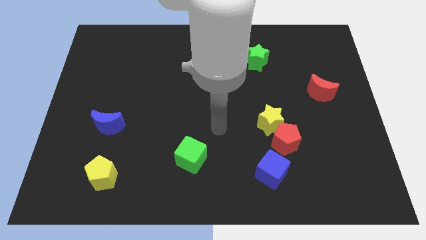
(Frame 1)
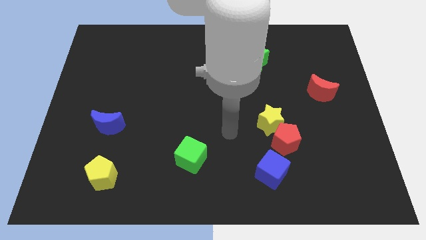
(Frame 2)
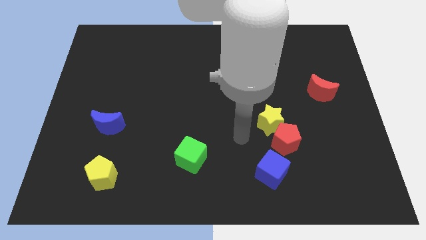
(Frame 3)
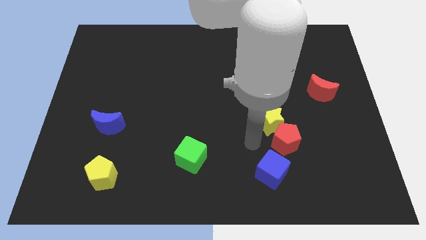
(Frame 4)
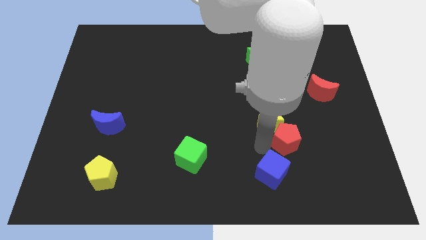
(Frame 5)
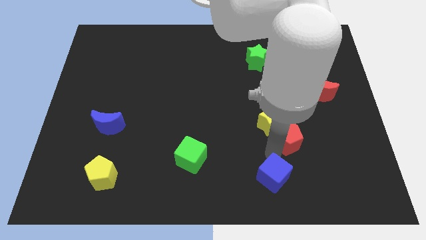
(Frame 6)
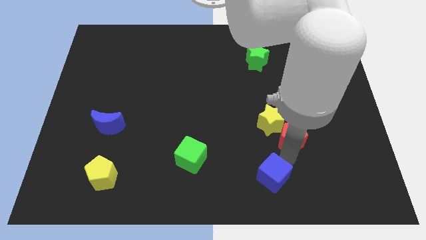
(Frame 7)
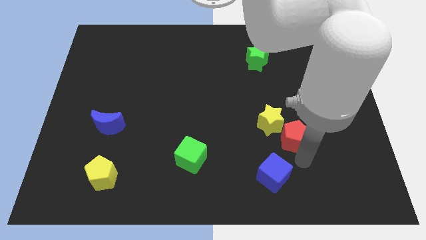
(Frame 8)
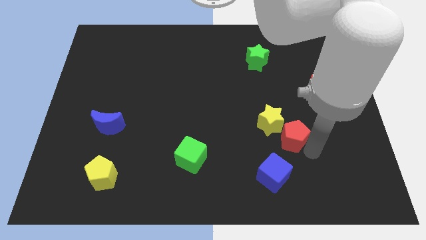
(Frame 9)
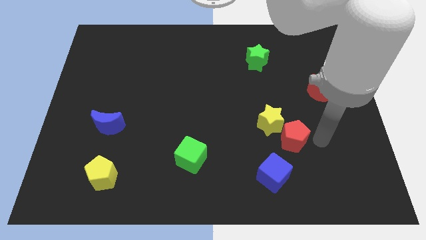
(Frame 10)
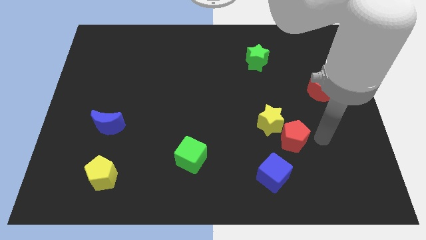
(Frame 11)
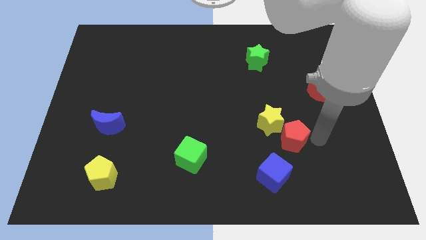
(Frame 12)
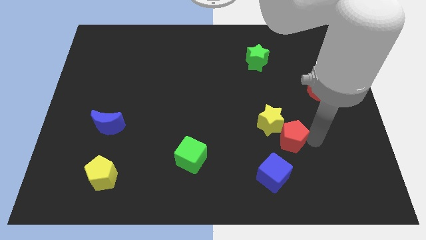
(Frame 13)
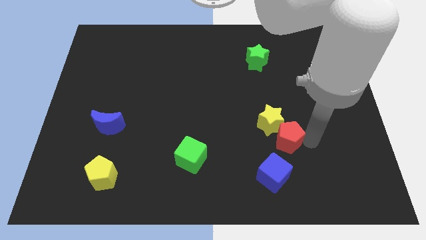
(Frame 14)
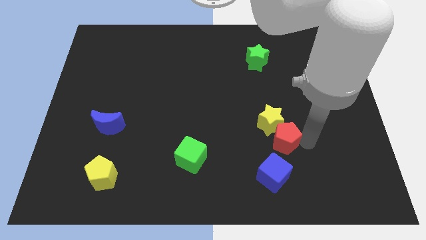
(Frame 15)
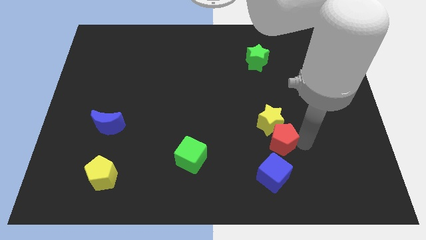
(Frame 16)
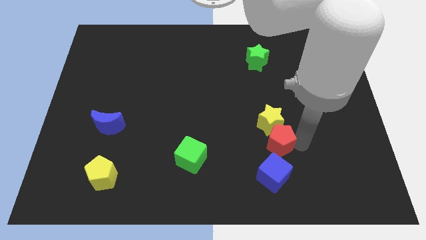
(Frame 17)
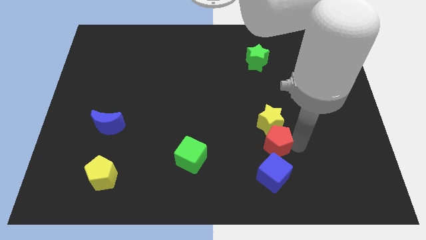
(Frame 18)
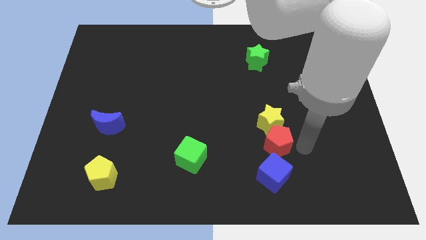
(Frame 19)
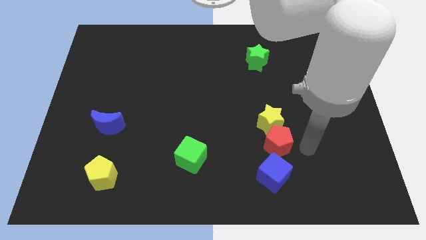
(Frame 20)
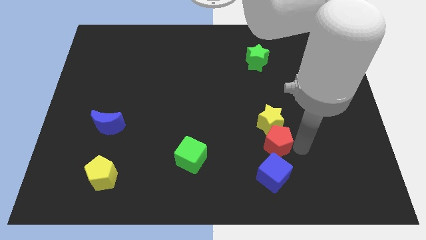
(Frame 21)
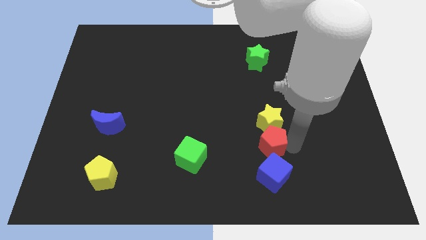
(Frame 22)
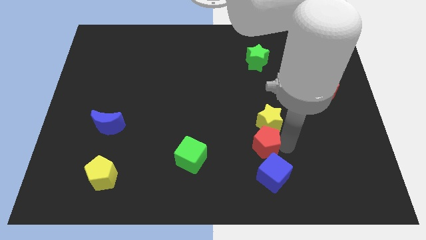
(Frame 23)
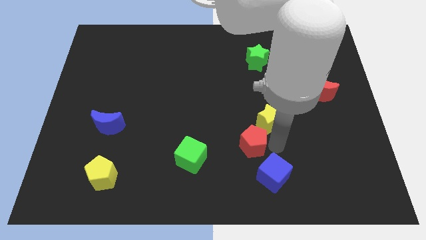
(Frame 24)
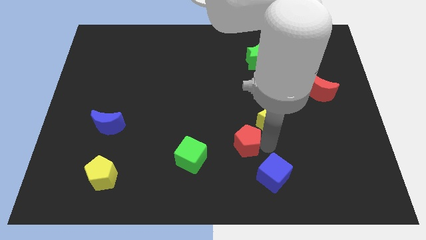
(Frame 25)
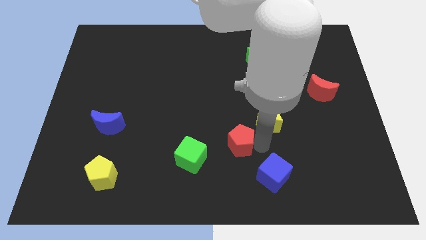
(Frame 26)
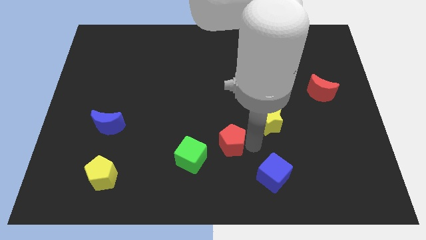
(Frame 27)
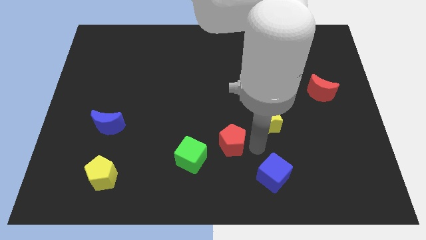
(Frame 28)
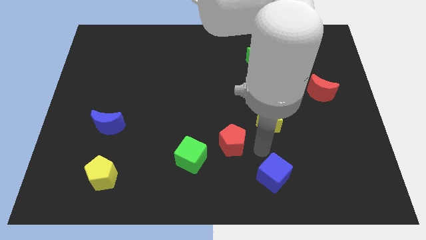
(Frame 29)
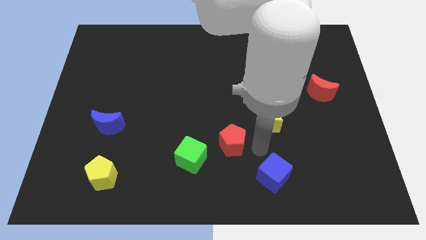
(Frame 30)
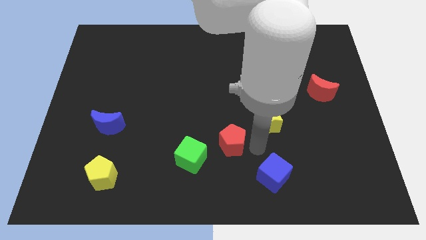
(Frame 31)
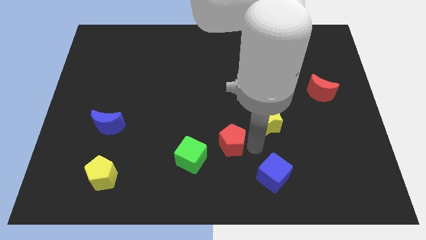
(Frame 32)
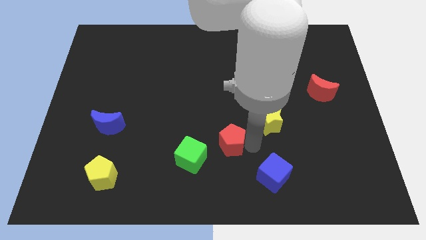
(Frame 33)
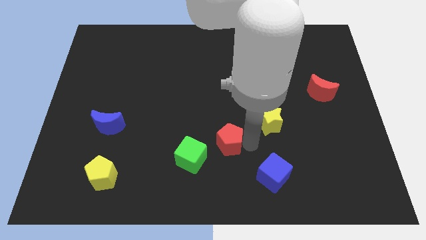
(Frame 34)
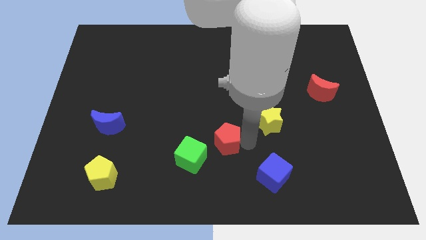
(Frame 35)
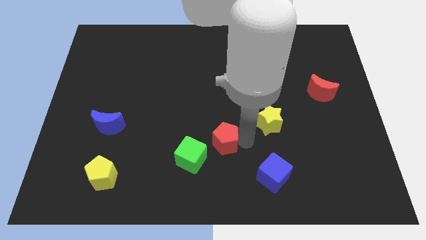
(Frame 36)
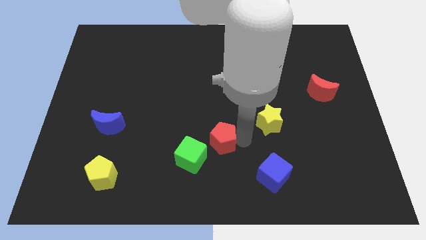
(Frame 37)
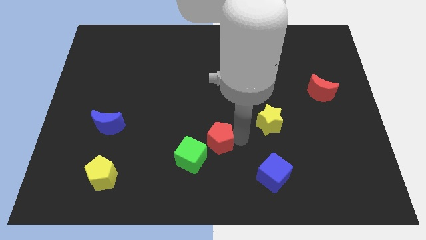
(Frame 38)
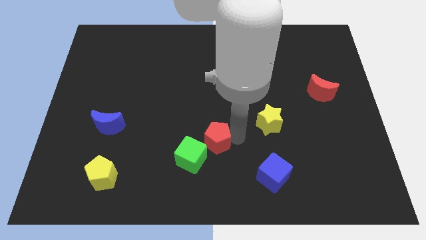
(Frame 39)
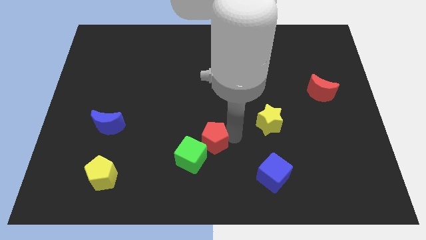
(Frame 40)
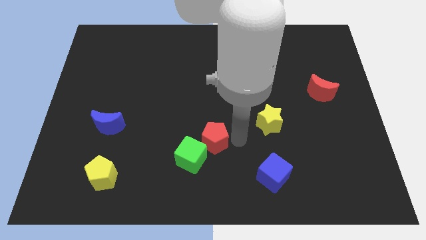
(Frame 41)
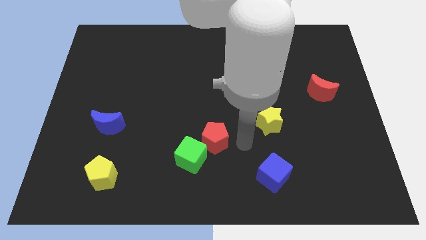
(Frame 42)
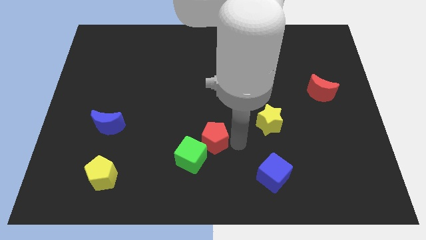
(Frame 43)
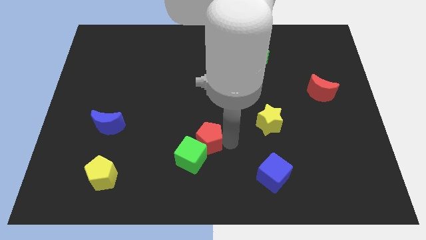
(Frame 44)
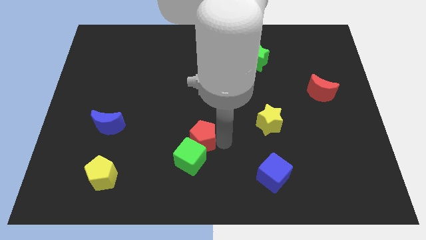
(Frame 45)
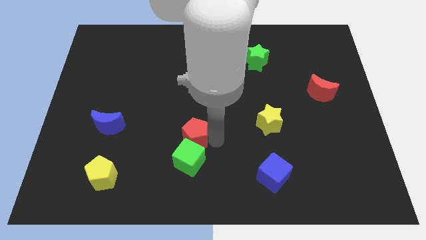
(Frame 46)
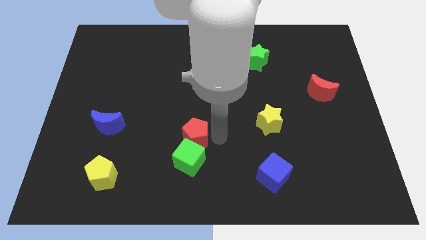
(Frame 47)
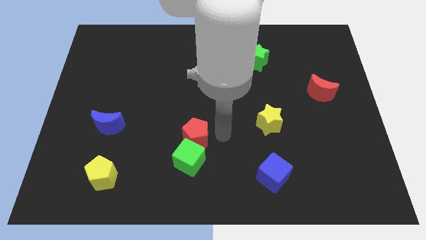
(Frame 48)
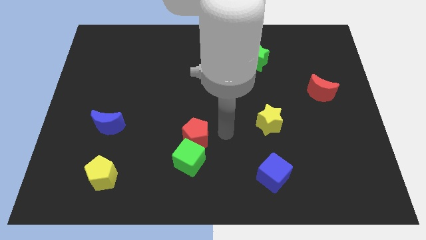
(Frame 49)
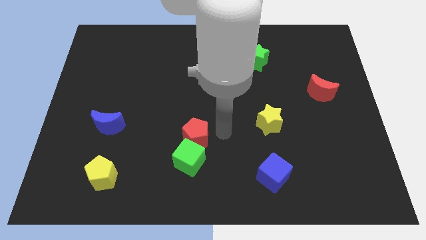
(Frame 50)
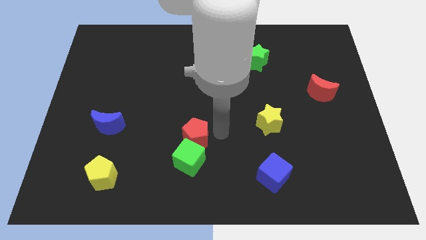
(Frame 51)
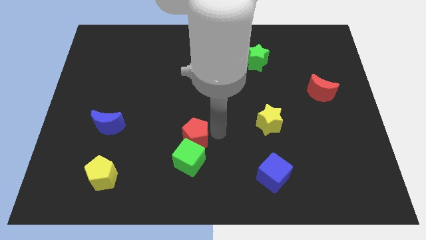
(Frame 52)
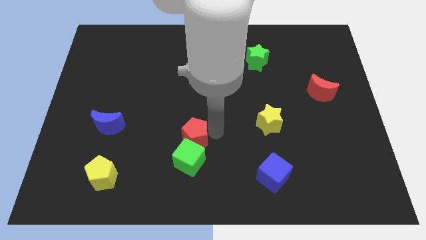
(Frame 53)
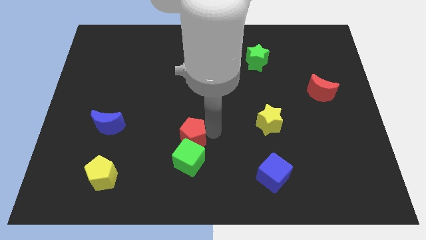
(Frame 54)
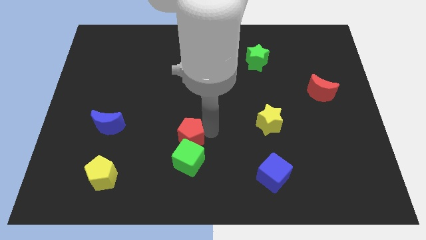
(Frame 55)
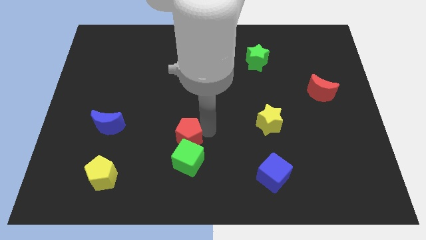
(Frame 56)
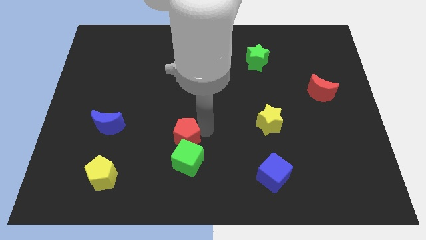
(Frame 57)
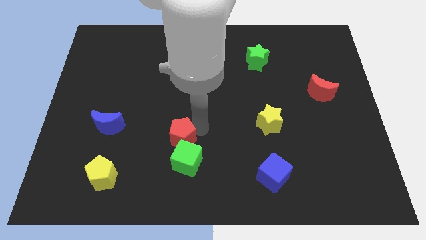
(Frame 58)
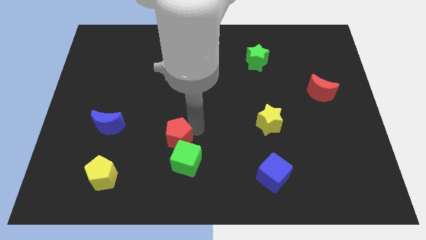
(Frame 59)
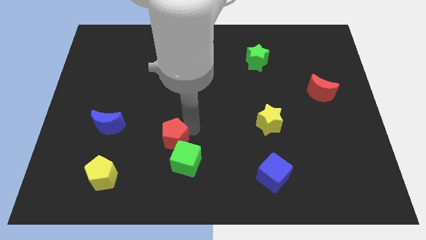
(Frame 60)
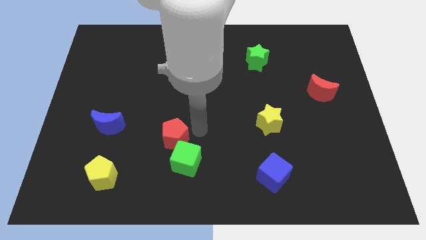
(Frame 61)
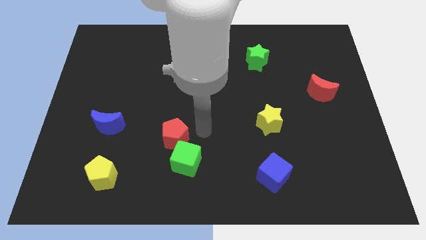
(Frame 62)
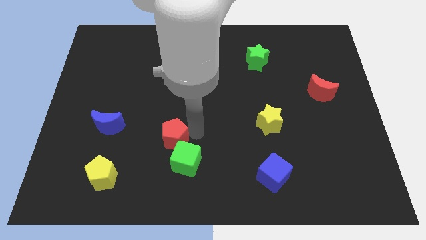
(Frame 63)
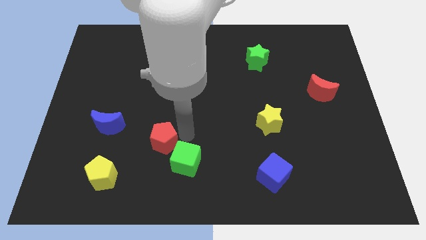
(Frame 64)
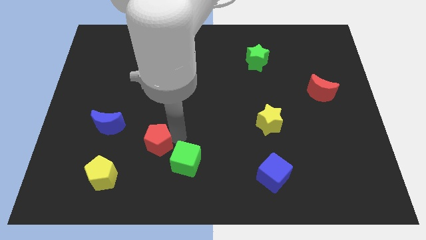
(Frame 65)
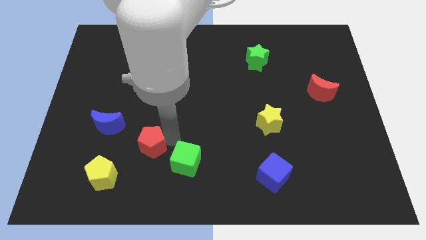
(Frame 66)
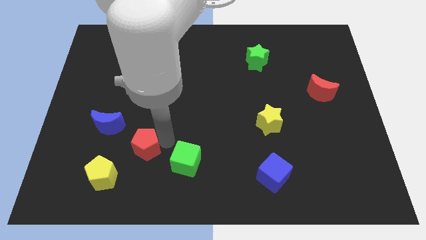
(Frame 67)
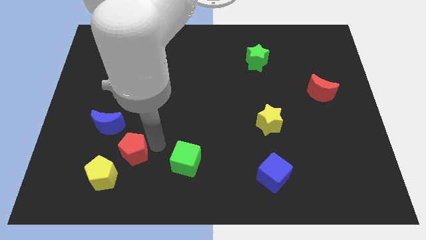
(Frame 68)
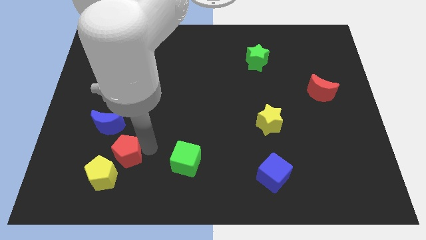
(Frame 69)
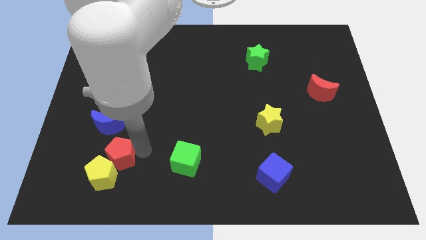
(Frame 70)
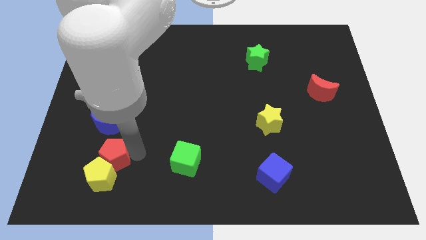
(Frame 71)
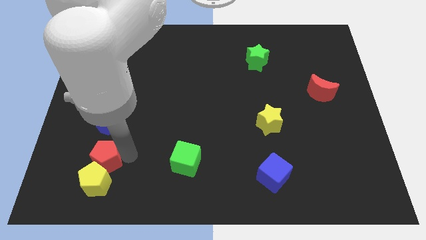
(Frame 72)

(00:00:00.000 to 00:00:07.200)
move the red pentagon to the top left of the yellow pentagon

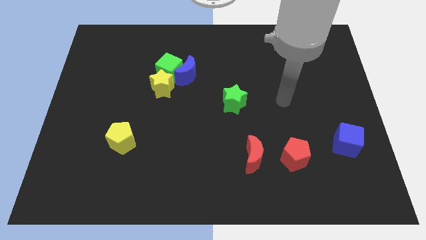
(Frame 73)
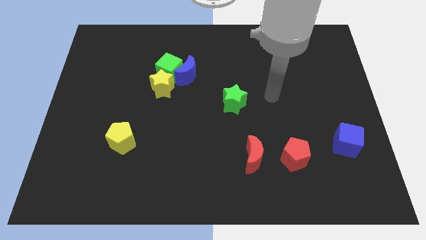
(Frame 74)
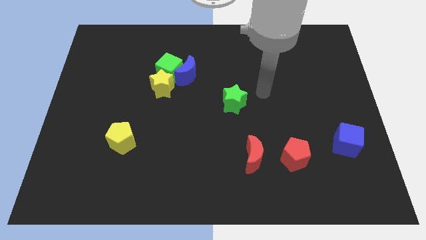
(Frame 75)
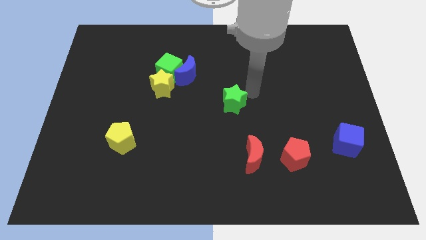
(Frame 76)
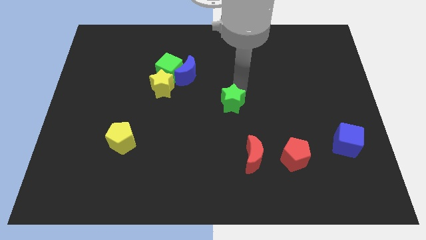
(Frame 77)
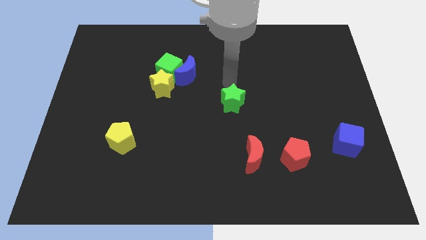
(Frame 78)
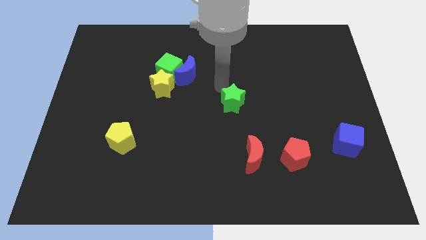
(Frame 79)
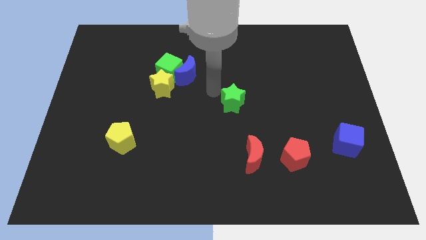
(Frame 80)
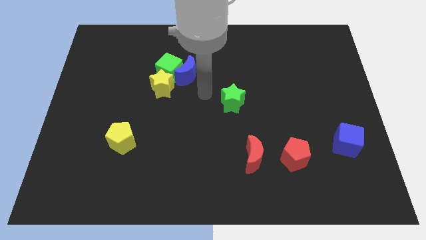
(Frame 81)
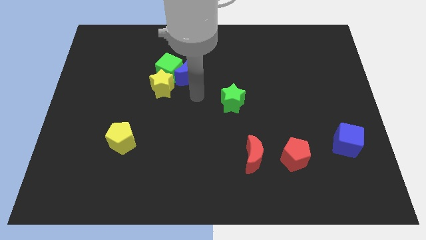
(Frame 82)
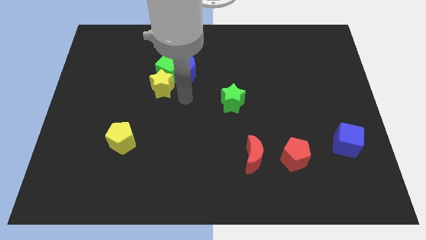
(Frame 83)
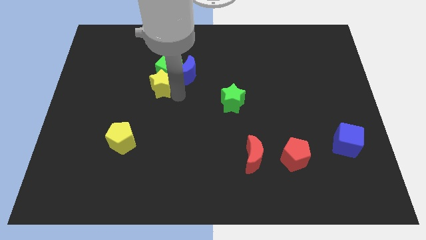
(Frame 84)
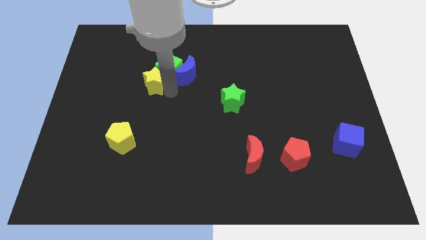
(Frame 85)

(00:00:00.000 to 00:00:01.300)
put the yellow star to the left side of the green cube
